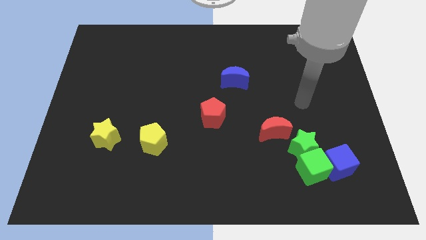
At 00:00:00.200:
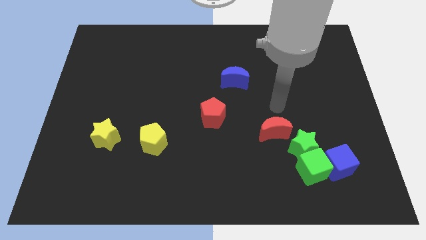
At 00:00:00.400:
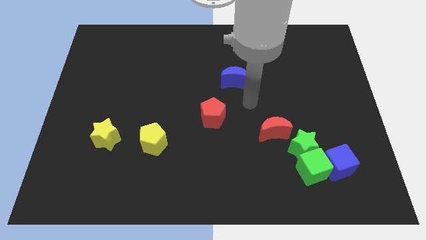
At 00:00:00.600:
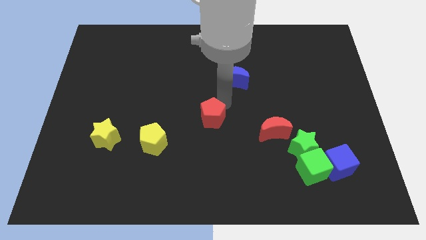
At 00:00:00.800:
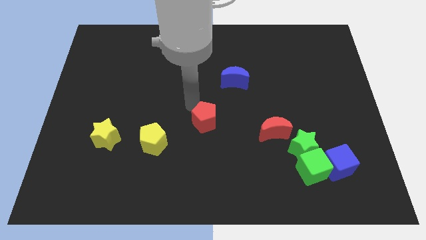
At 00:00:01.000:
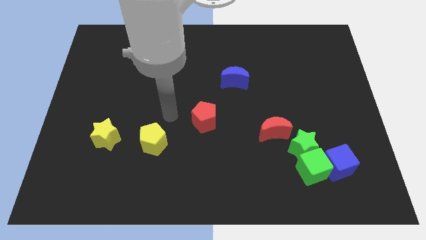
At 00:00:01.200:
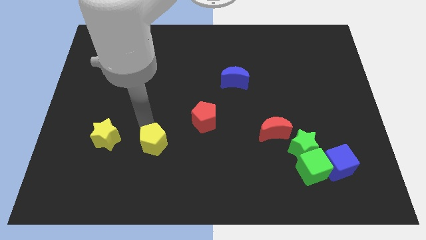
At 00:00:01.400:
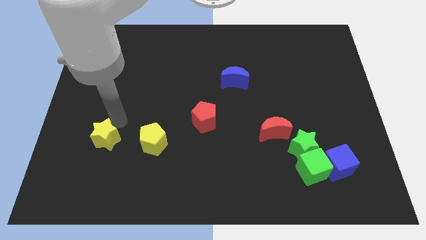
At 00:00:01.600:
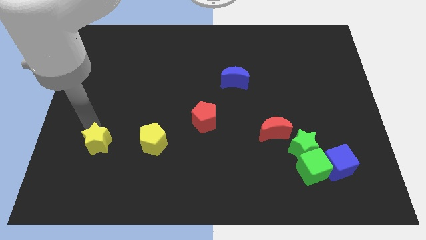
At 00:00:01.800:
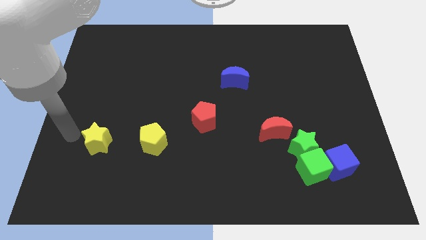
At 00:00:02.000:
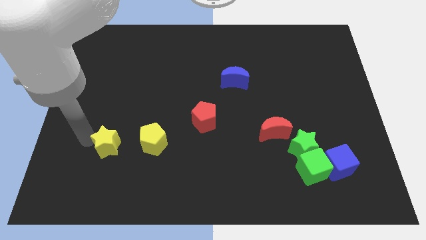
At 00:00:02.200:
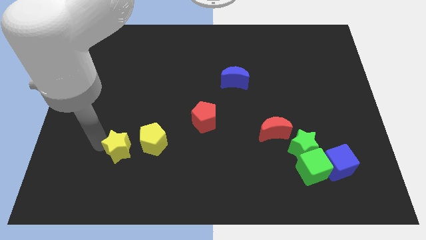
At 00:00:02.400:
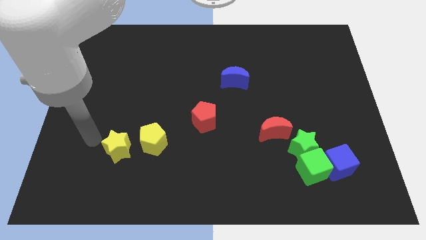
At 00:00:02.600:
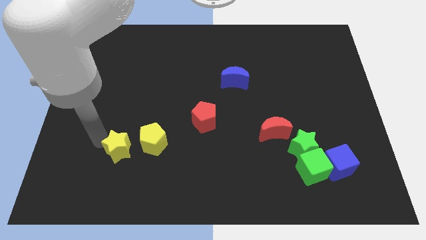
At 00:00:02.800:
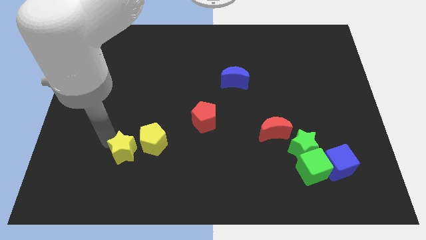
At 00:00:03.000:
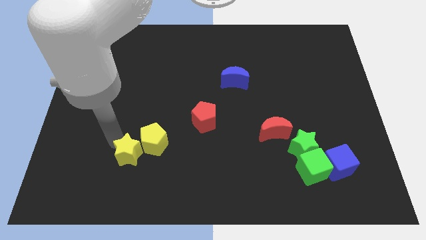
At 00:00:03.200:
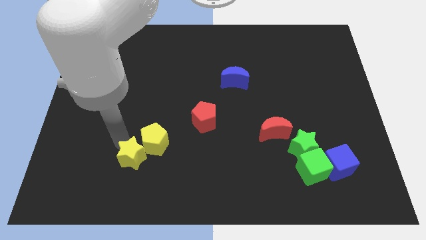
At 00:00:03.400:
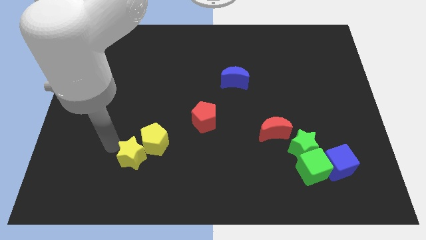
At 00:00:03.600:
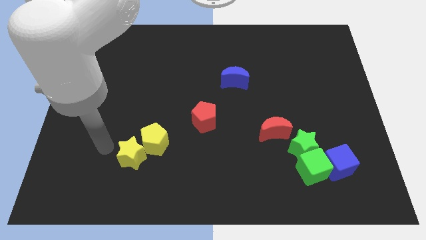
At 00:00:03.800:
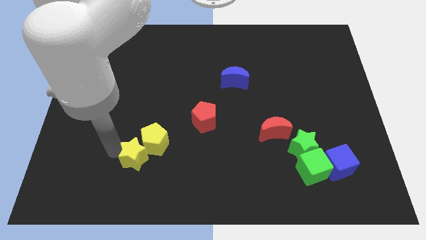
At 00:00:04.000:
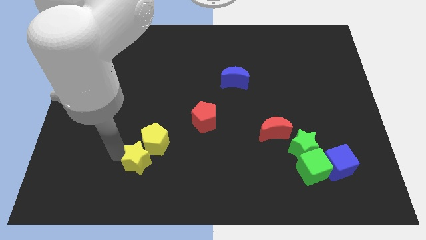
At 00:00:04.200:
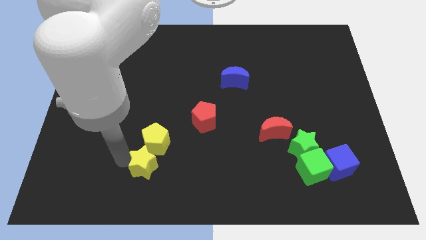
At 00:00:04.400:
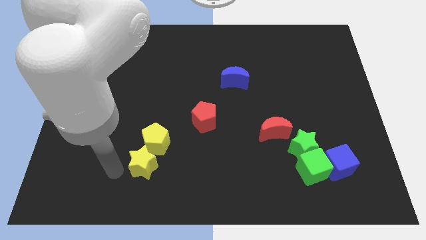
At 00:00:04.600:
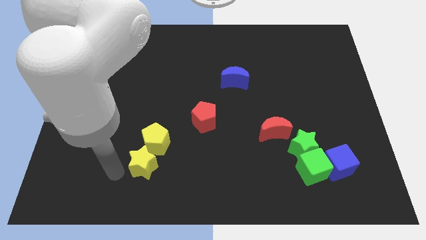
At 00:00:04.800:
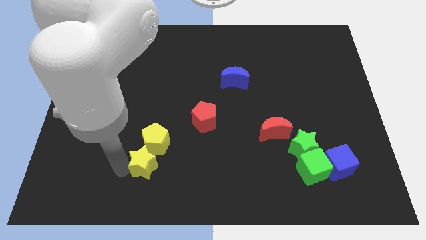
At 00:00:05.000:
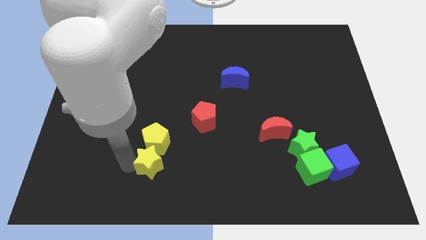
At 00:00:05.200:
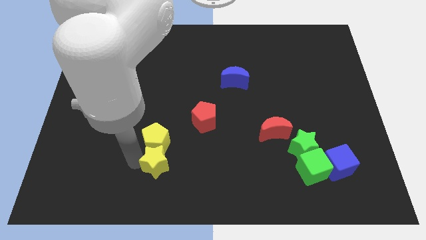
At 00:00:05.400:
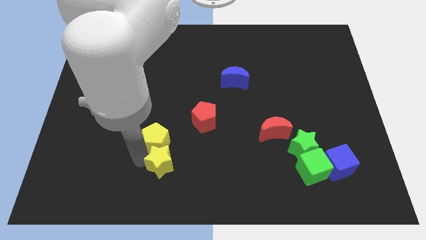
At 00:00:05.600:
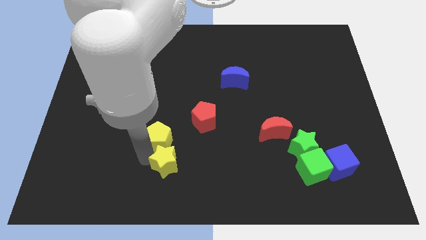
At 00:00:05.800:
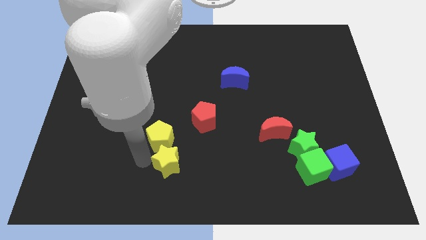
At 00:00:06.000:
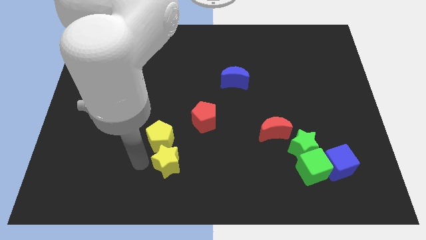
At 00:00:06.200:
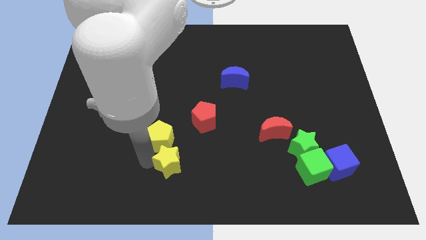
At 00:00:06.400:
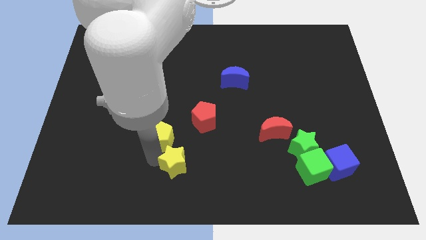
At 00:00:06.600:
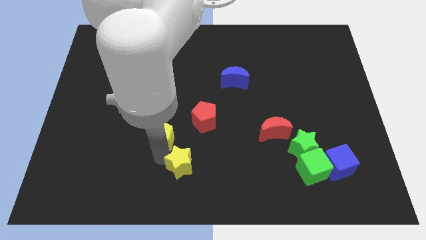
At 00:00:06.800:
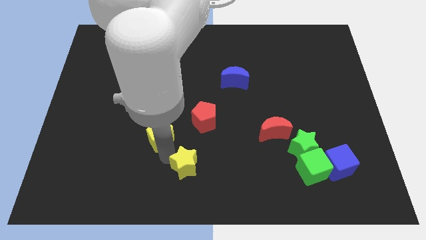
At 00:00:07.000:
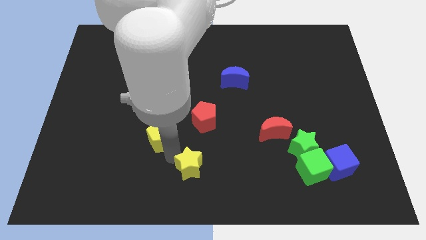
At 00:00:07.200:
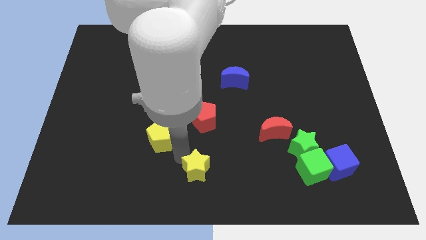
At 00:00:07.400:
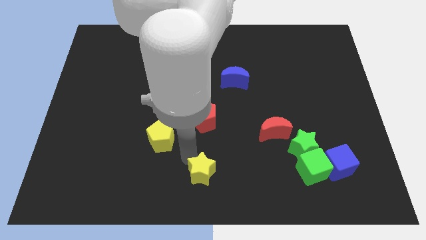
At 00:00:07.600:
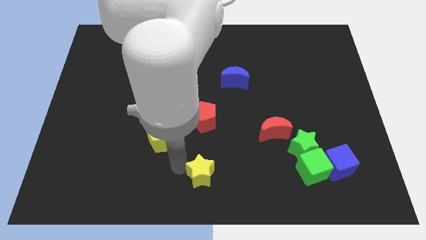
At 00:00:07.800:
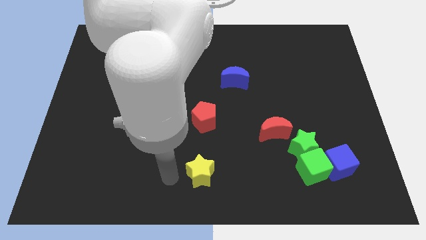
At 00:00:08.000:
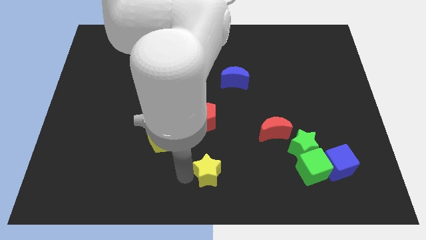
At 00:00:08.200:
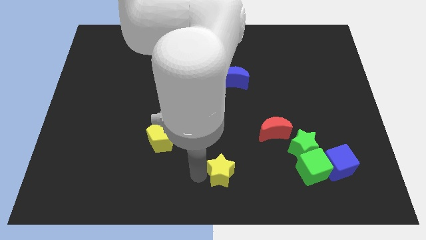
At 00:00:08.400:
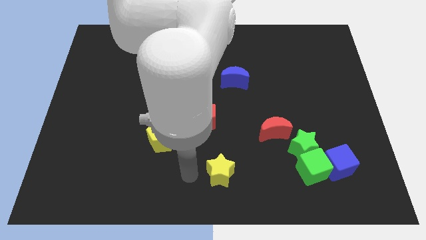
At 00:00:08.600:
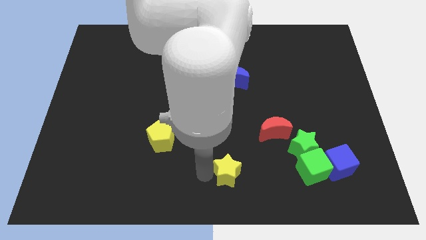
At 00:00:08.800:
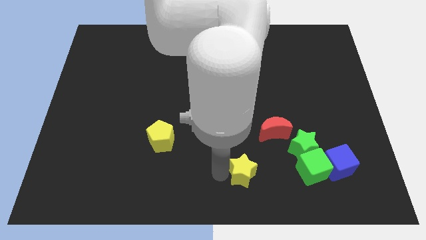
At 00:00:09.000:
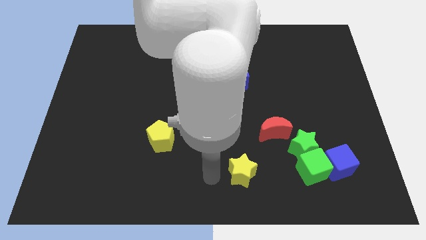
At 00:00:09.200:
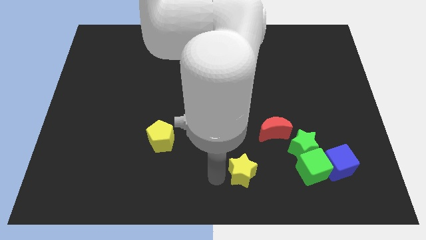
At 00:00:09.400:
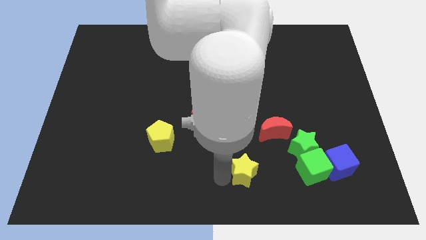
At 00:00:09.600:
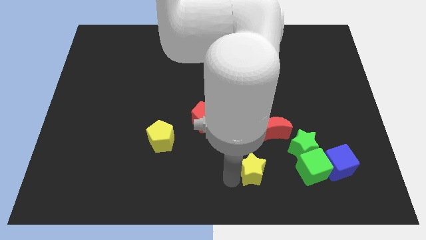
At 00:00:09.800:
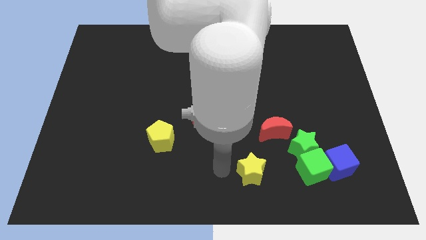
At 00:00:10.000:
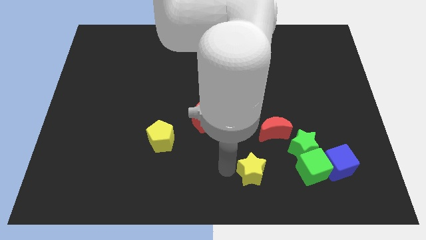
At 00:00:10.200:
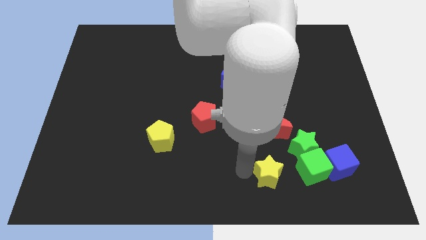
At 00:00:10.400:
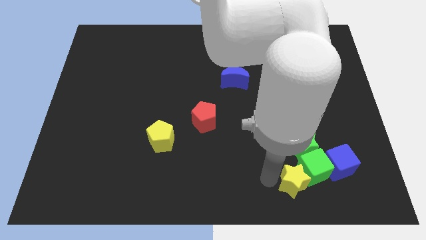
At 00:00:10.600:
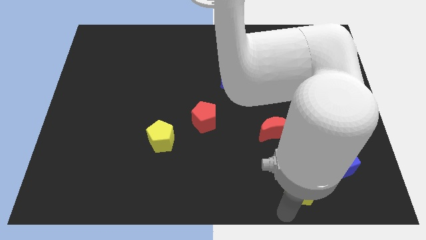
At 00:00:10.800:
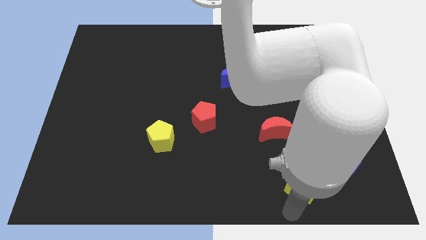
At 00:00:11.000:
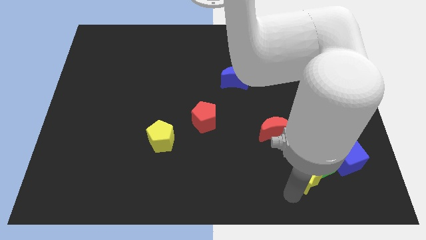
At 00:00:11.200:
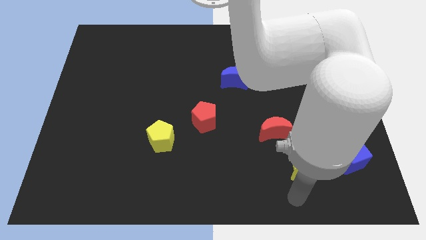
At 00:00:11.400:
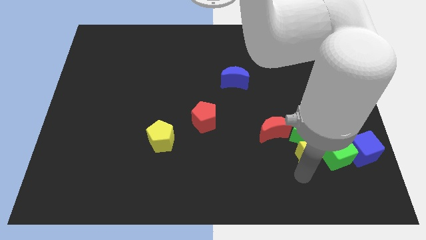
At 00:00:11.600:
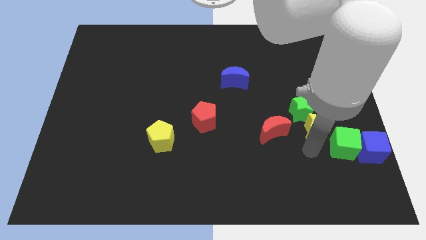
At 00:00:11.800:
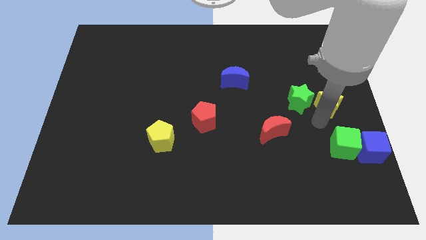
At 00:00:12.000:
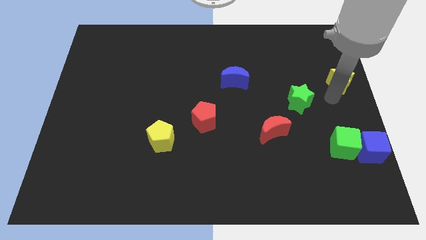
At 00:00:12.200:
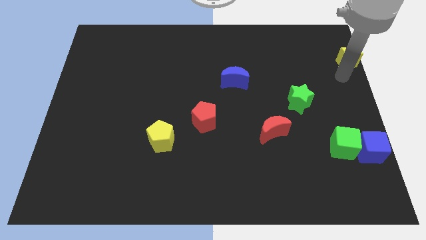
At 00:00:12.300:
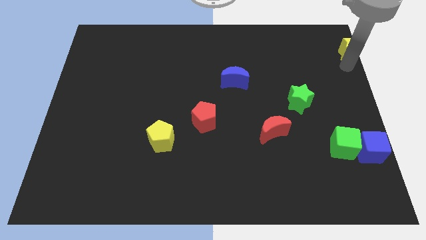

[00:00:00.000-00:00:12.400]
slide the yellow star to the top right corner

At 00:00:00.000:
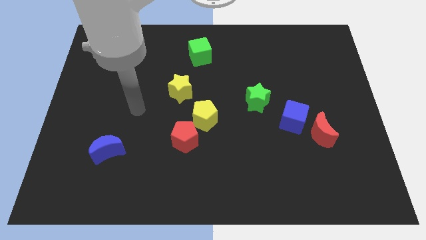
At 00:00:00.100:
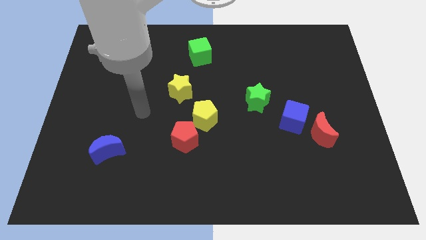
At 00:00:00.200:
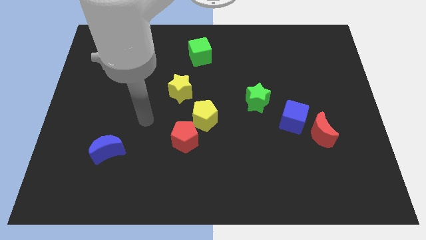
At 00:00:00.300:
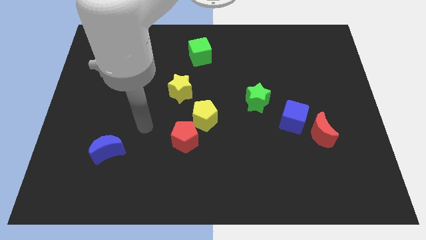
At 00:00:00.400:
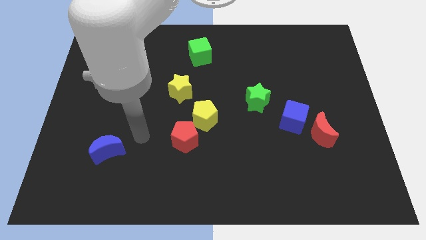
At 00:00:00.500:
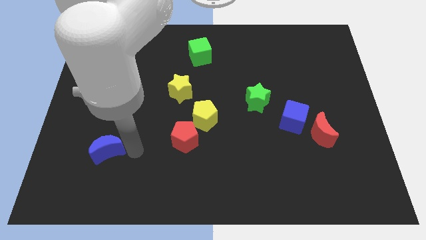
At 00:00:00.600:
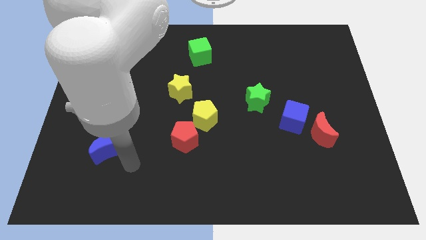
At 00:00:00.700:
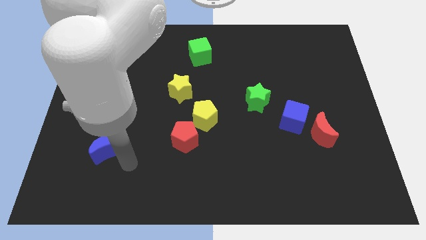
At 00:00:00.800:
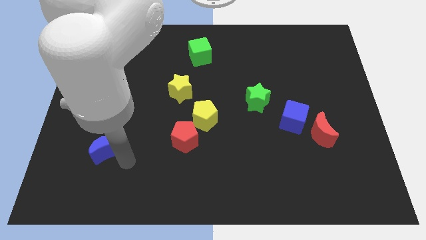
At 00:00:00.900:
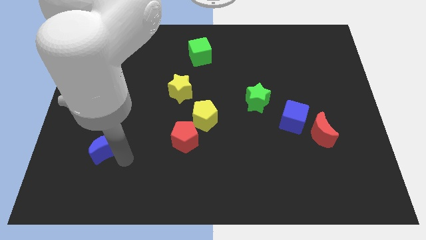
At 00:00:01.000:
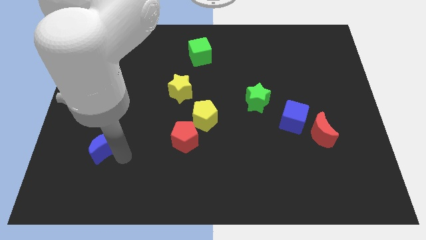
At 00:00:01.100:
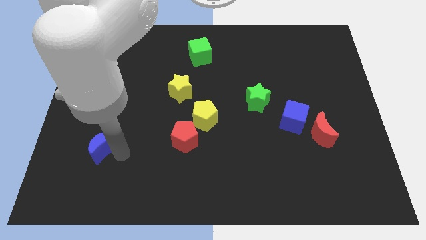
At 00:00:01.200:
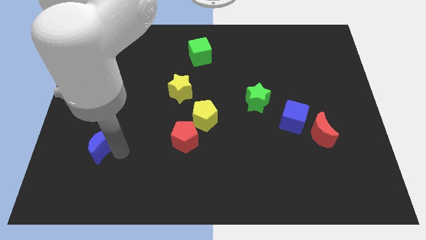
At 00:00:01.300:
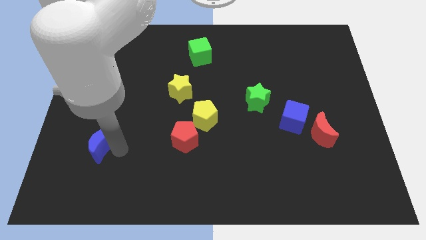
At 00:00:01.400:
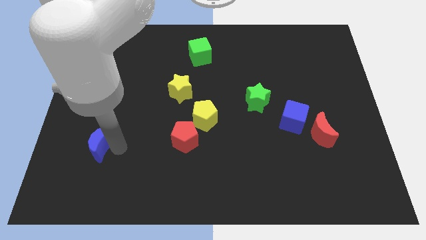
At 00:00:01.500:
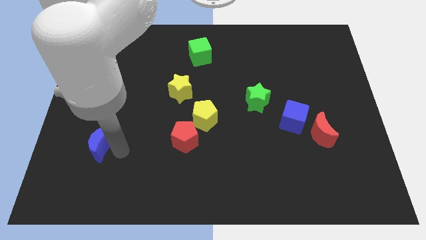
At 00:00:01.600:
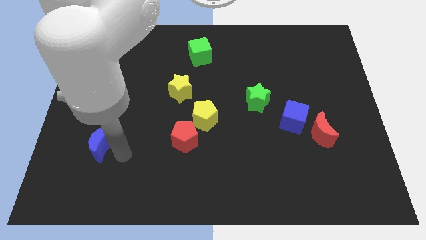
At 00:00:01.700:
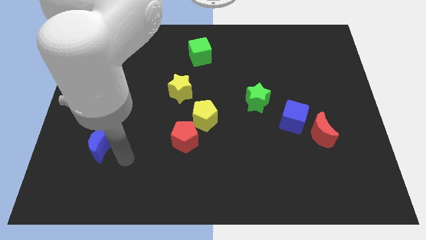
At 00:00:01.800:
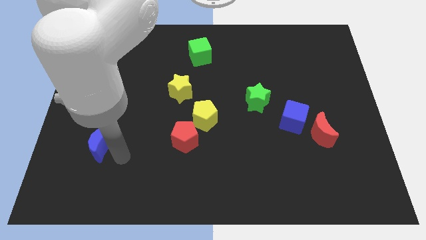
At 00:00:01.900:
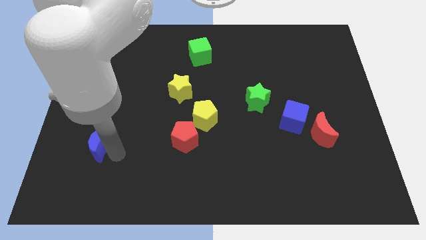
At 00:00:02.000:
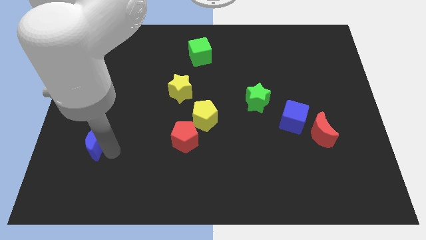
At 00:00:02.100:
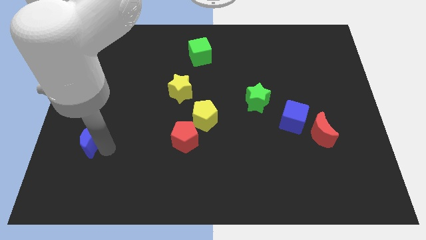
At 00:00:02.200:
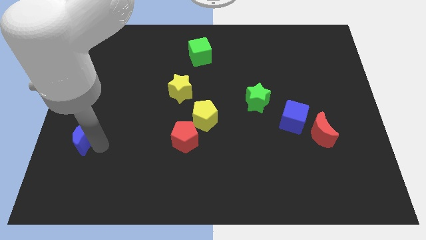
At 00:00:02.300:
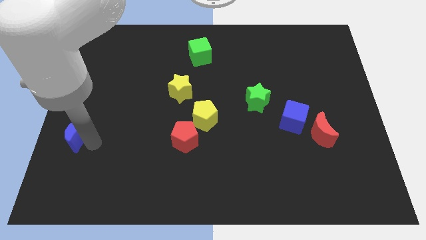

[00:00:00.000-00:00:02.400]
push the blue moon to the left side of the board
